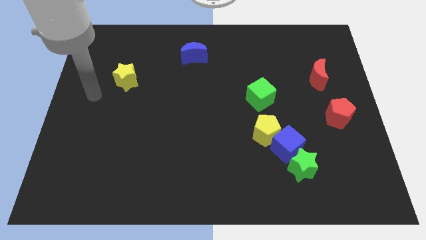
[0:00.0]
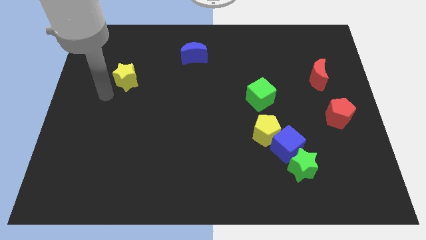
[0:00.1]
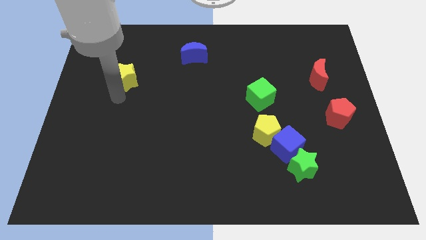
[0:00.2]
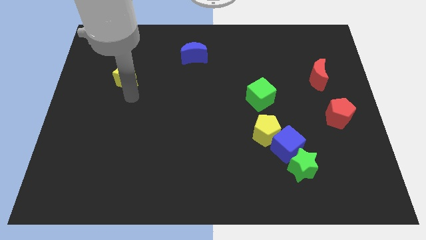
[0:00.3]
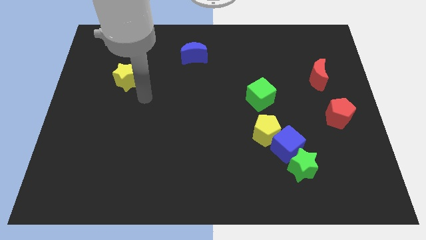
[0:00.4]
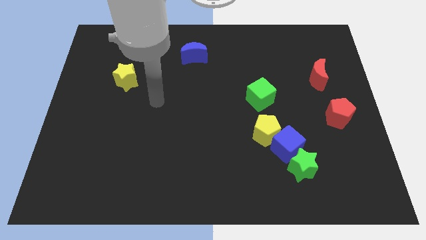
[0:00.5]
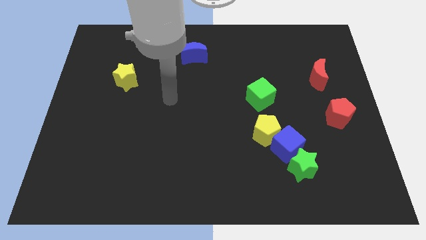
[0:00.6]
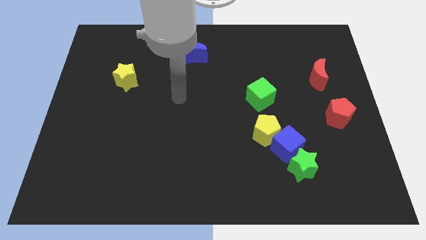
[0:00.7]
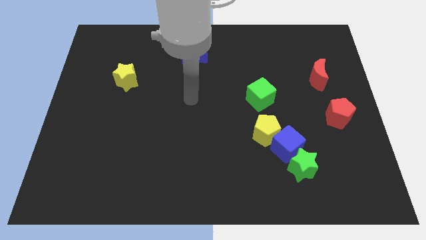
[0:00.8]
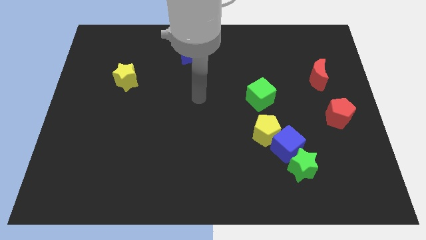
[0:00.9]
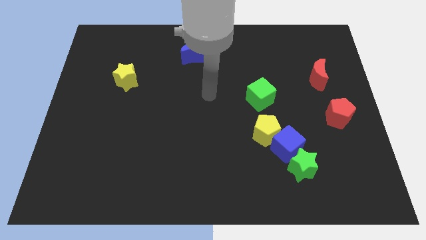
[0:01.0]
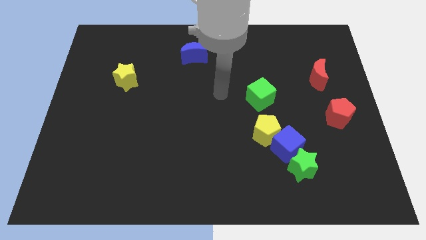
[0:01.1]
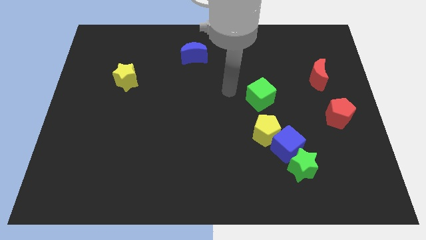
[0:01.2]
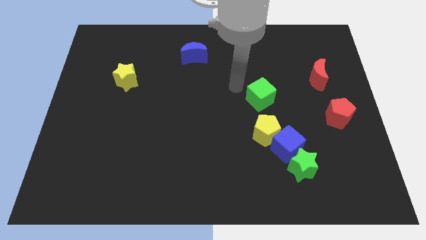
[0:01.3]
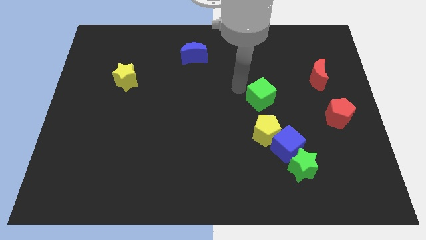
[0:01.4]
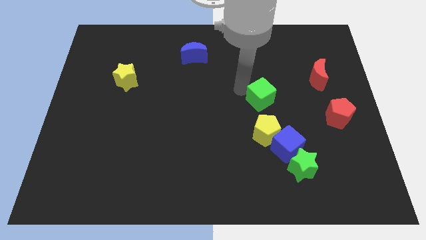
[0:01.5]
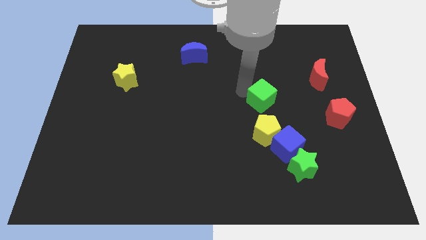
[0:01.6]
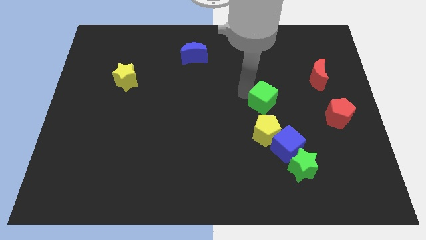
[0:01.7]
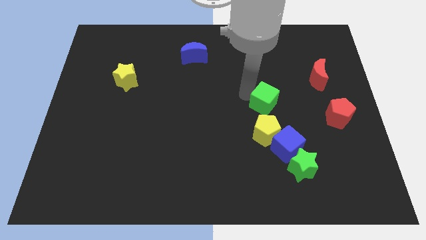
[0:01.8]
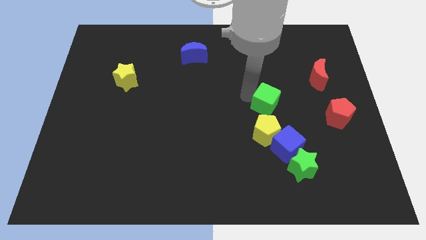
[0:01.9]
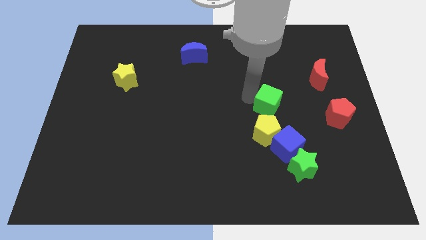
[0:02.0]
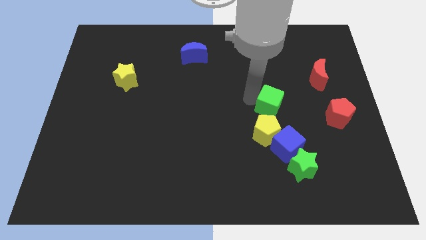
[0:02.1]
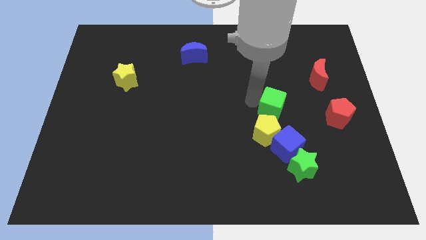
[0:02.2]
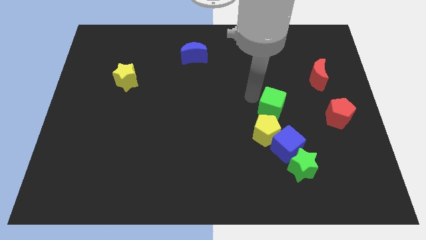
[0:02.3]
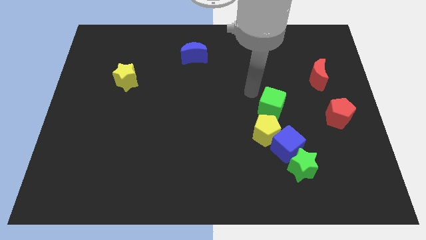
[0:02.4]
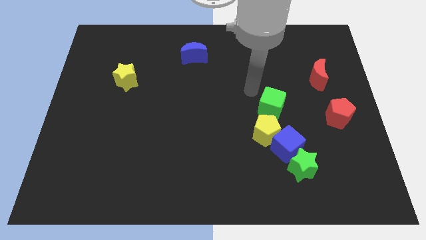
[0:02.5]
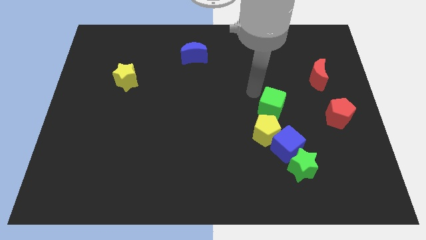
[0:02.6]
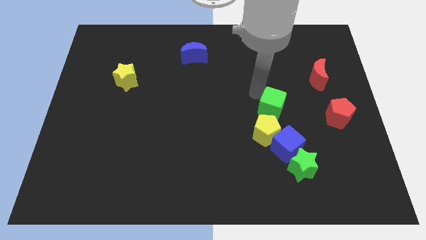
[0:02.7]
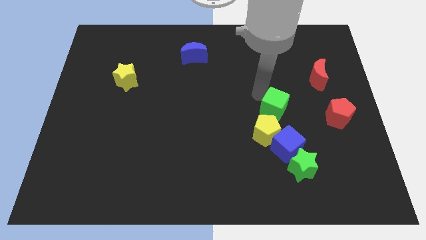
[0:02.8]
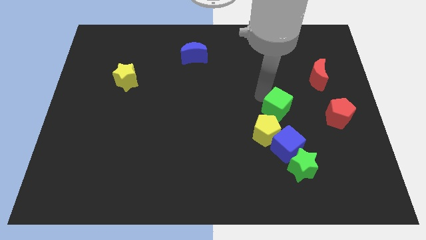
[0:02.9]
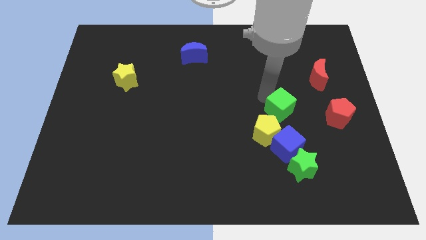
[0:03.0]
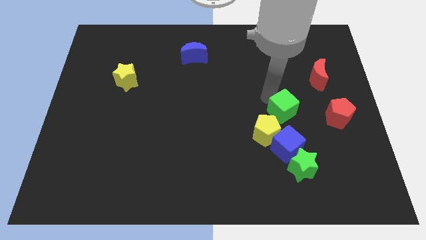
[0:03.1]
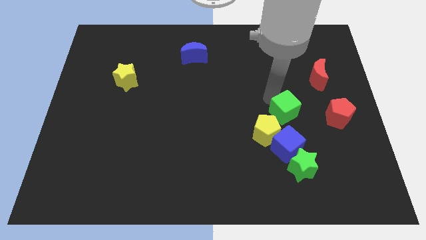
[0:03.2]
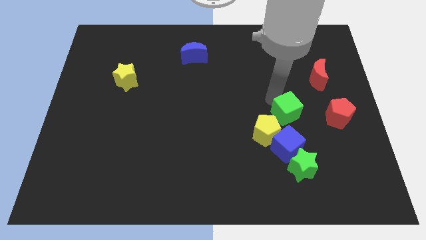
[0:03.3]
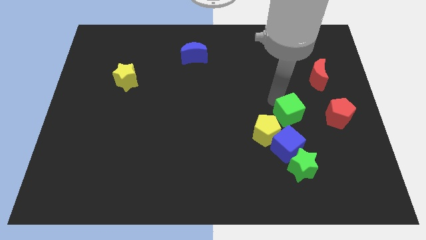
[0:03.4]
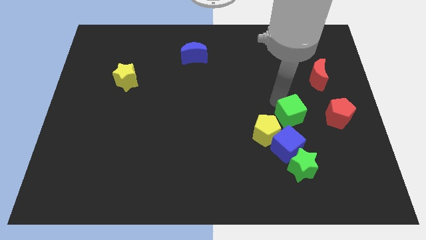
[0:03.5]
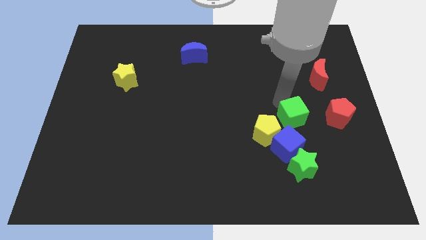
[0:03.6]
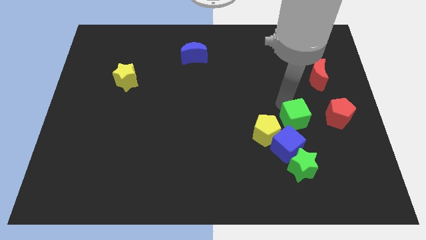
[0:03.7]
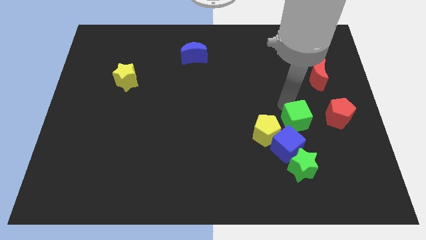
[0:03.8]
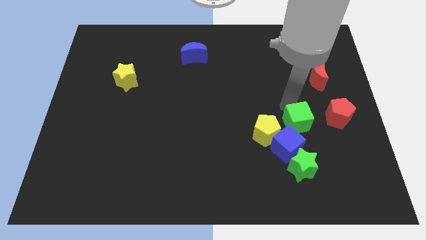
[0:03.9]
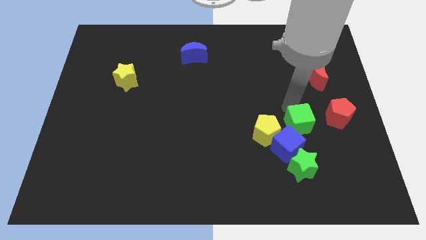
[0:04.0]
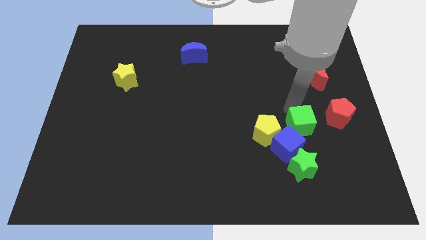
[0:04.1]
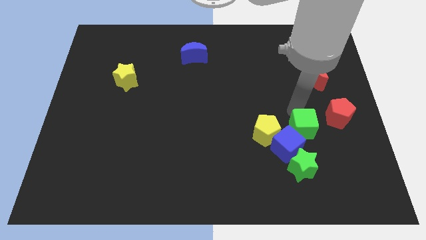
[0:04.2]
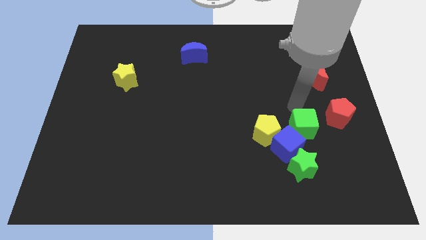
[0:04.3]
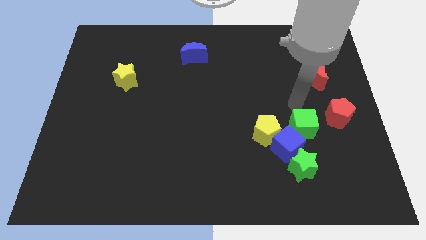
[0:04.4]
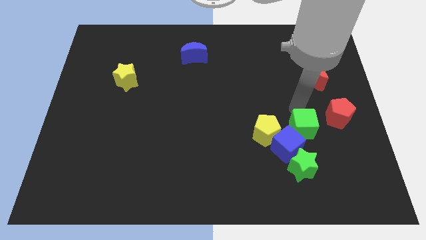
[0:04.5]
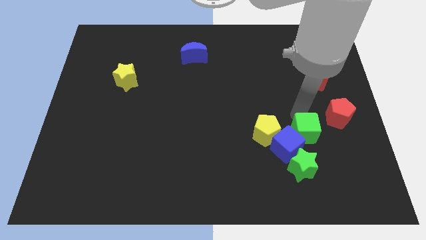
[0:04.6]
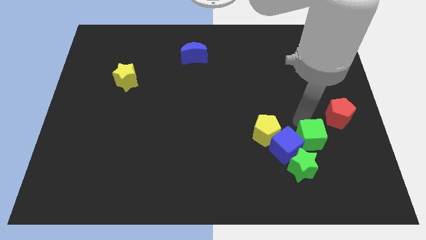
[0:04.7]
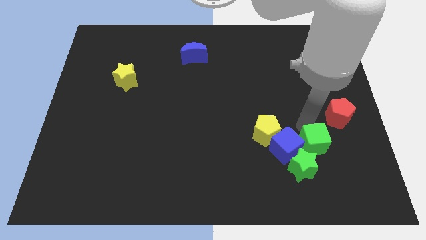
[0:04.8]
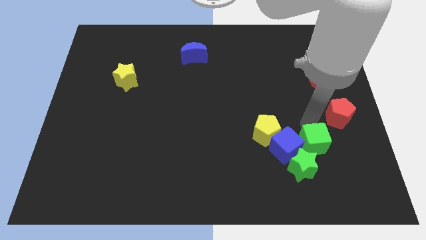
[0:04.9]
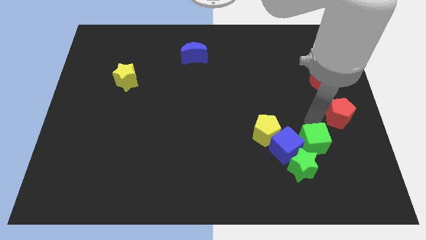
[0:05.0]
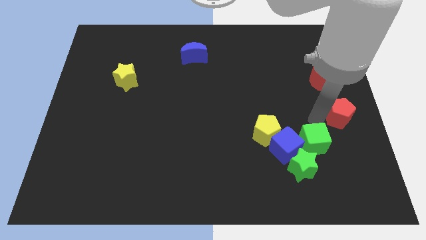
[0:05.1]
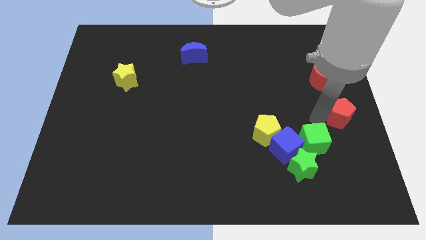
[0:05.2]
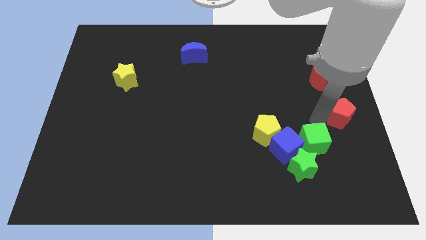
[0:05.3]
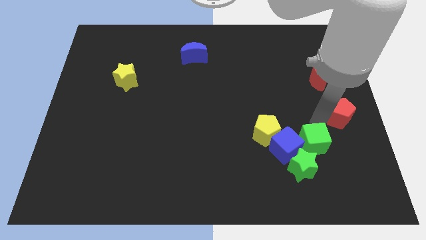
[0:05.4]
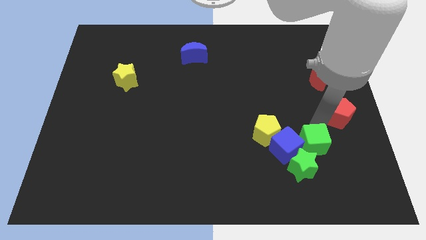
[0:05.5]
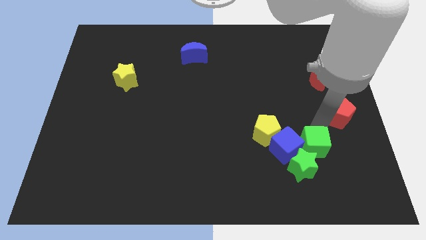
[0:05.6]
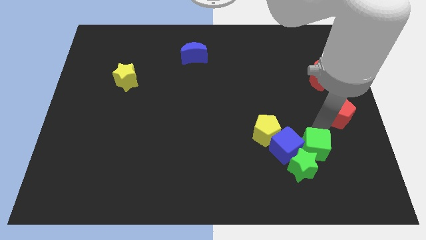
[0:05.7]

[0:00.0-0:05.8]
move the green cube towards the green star
